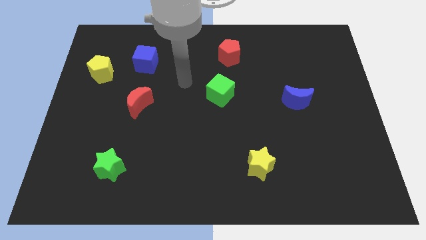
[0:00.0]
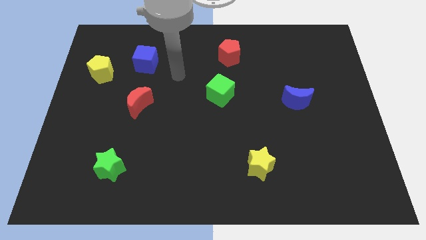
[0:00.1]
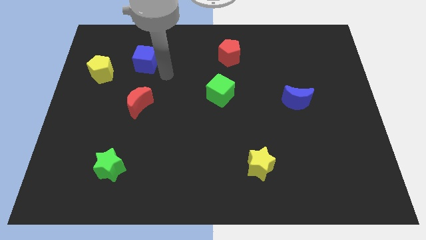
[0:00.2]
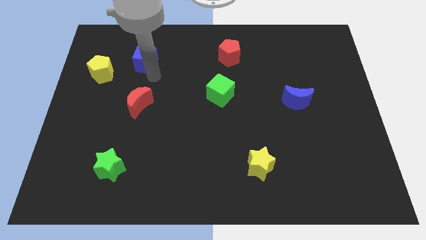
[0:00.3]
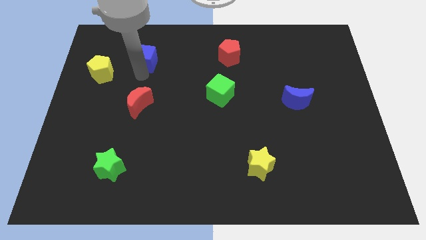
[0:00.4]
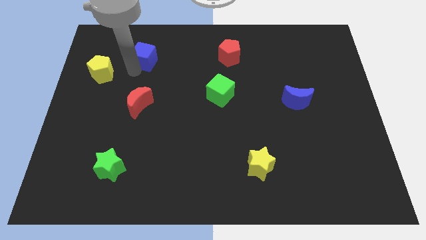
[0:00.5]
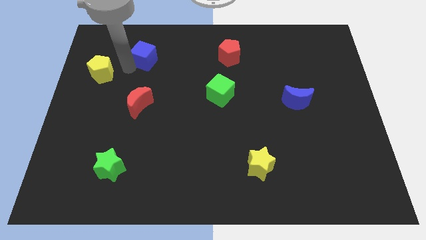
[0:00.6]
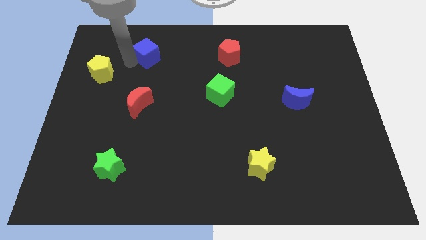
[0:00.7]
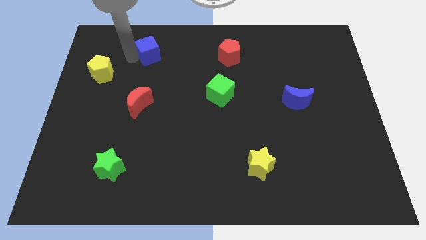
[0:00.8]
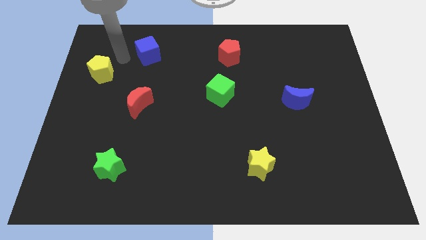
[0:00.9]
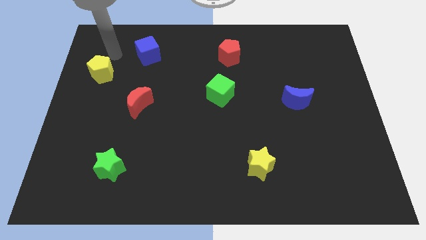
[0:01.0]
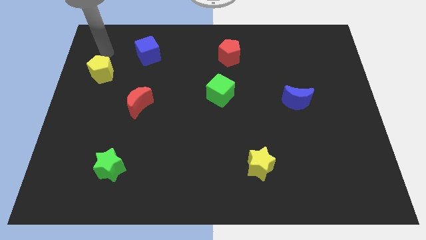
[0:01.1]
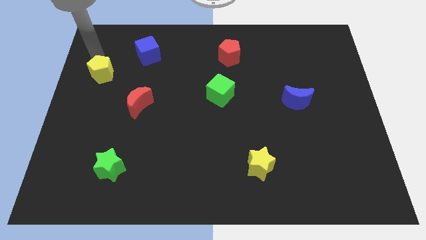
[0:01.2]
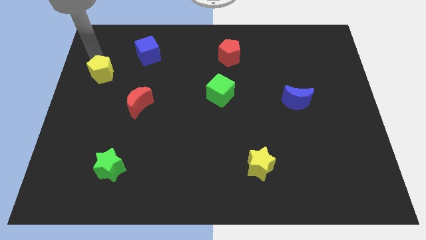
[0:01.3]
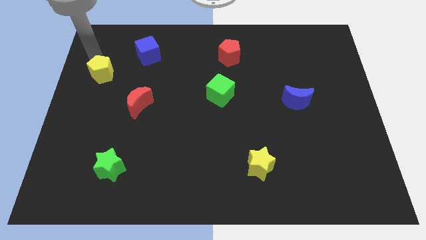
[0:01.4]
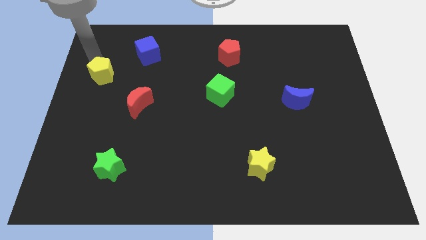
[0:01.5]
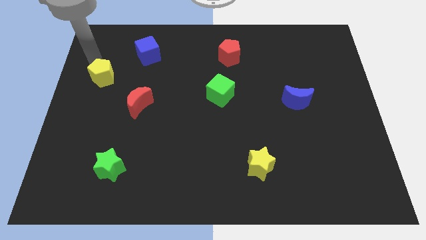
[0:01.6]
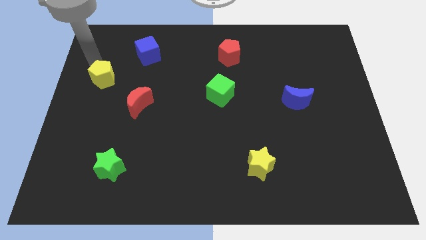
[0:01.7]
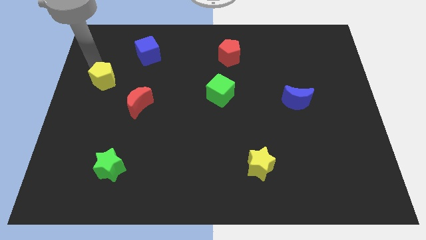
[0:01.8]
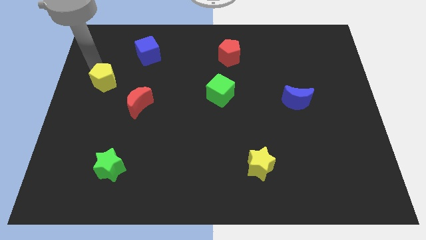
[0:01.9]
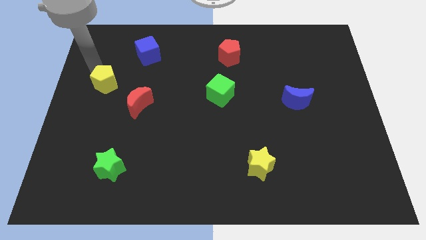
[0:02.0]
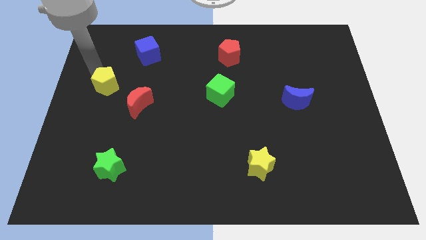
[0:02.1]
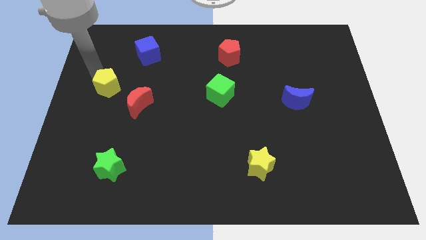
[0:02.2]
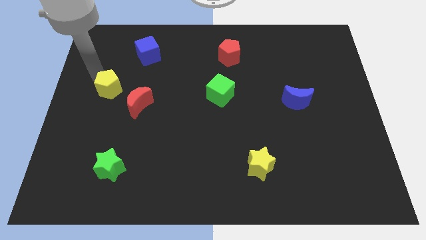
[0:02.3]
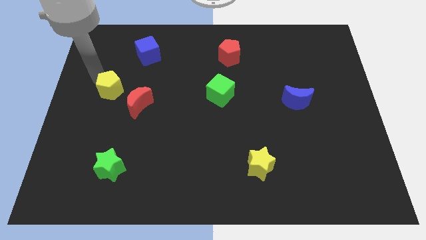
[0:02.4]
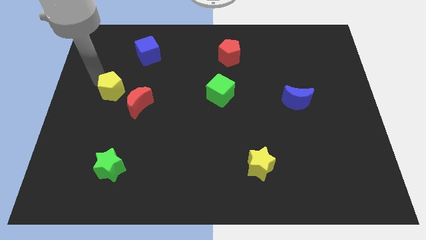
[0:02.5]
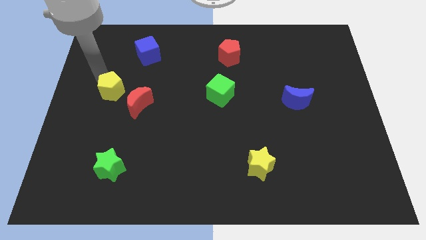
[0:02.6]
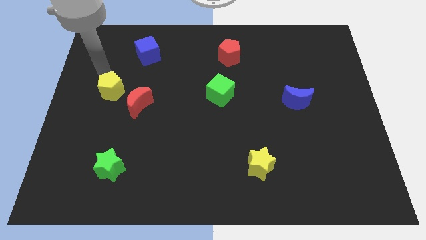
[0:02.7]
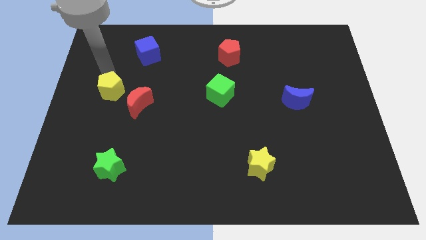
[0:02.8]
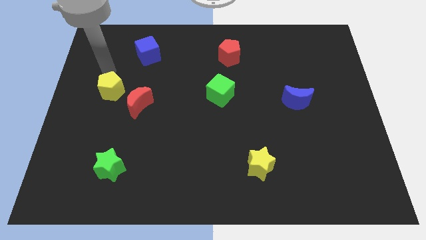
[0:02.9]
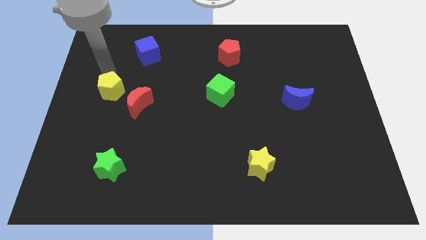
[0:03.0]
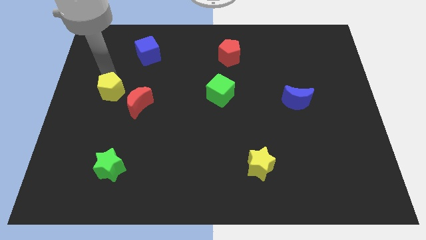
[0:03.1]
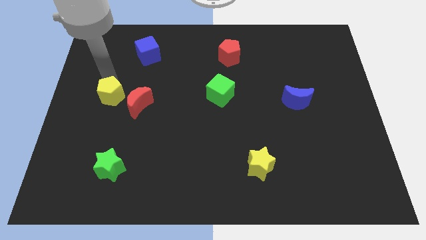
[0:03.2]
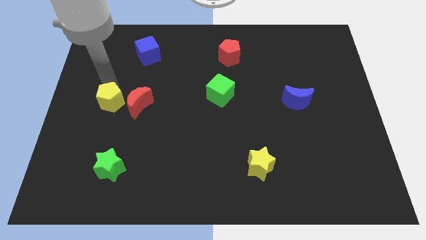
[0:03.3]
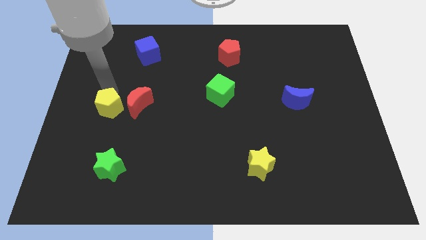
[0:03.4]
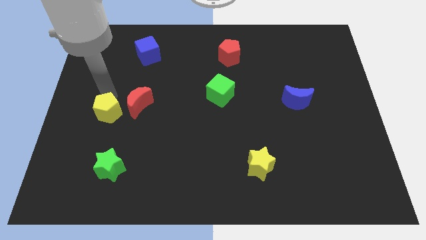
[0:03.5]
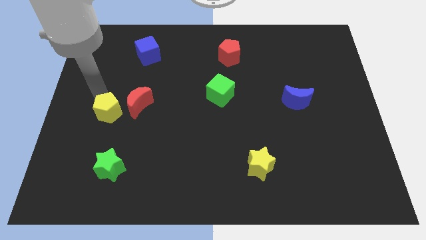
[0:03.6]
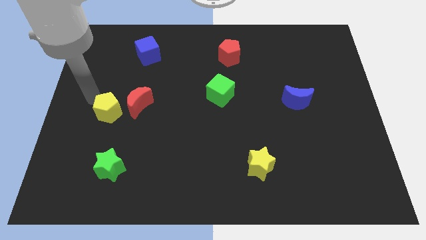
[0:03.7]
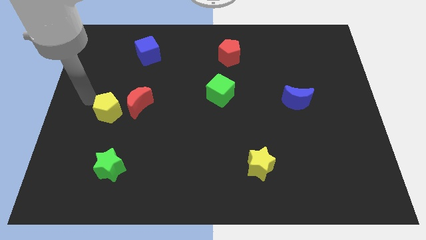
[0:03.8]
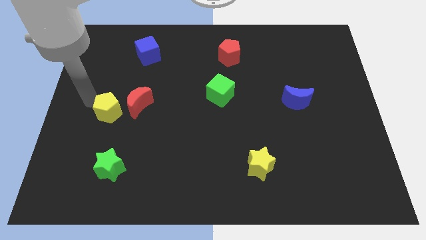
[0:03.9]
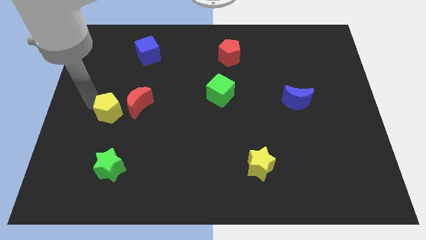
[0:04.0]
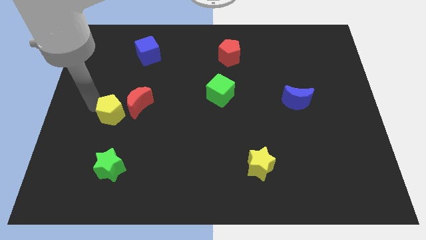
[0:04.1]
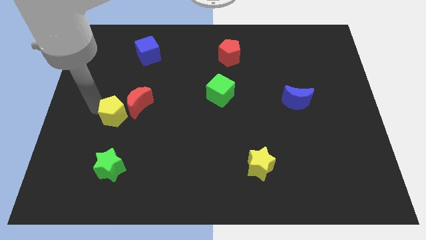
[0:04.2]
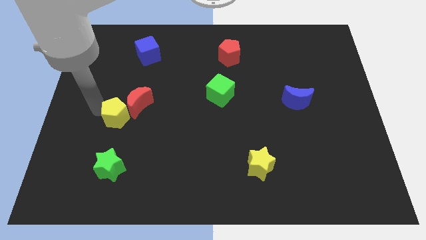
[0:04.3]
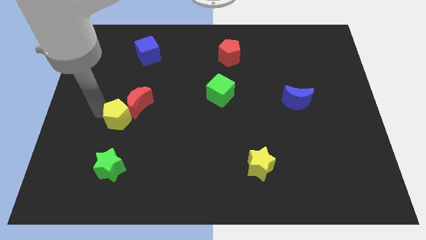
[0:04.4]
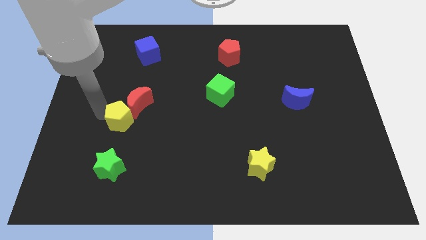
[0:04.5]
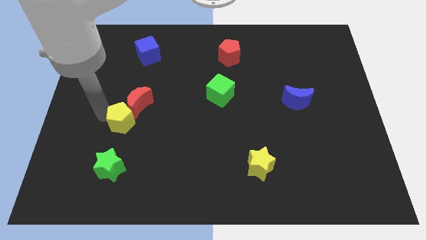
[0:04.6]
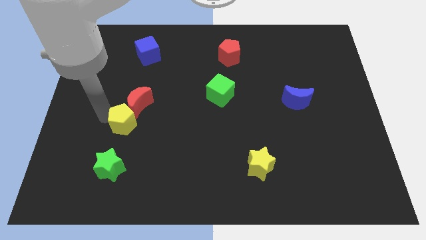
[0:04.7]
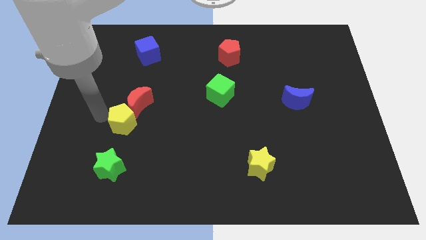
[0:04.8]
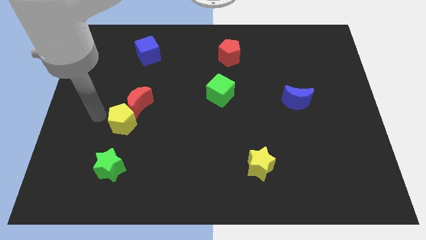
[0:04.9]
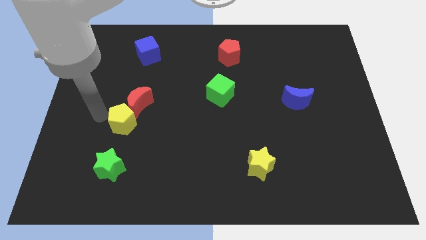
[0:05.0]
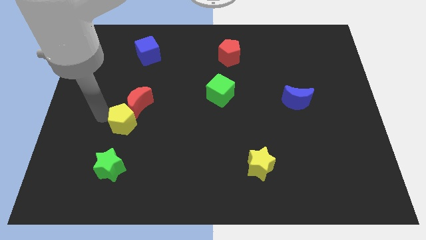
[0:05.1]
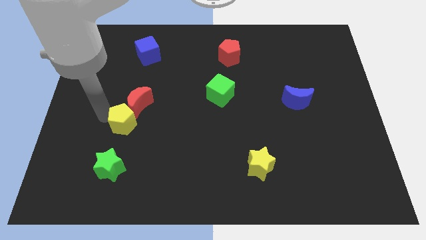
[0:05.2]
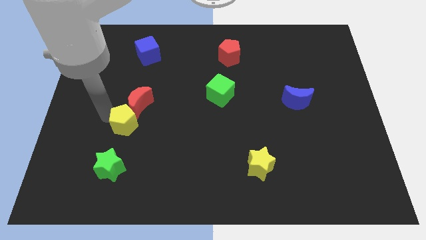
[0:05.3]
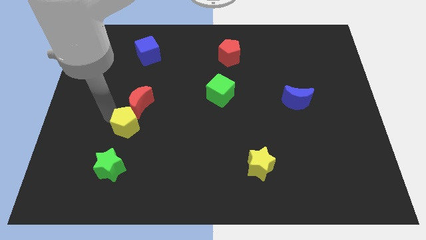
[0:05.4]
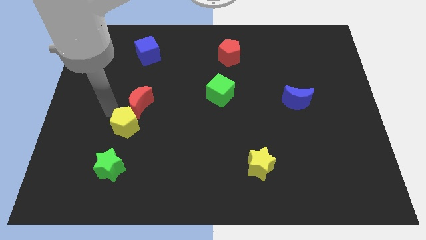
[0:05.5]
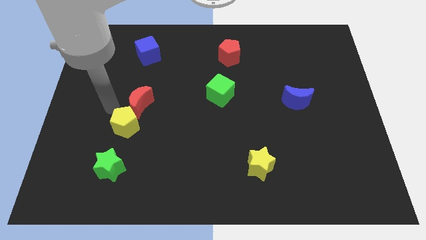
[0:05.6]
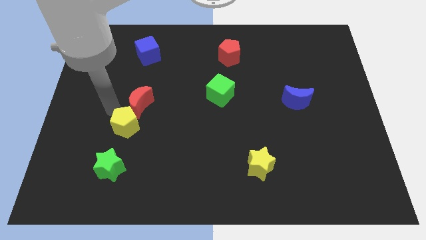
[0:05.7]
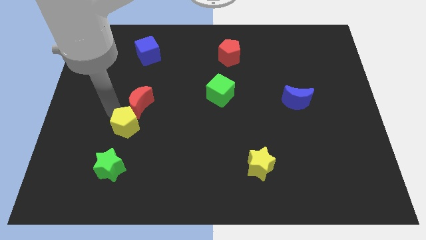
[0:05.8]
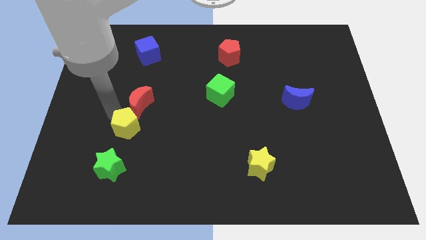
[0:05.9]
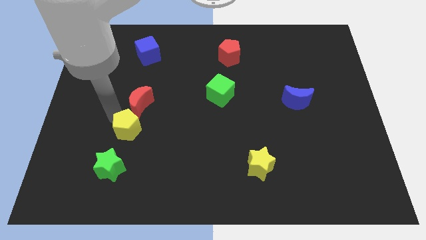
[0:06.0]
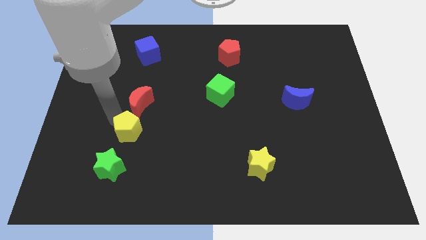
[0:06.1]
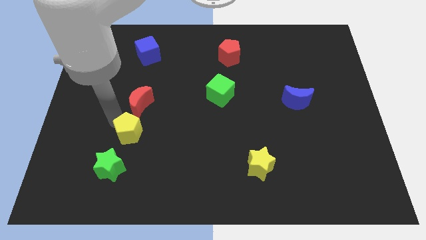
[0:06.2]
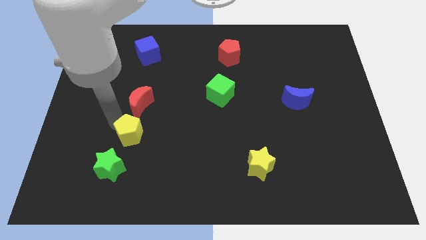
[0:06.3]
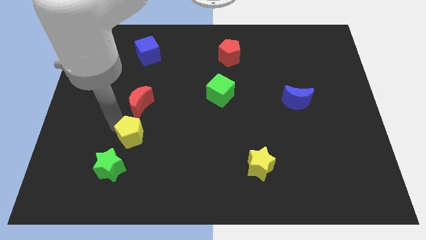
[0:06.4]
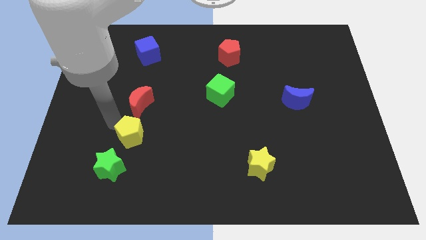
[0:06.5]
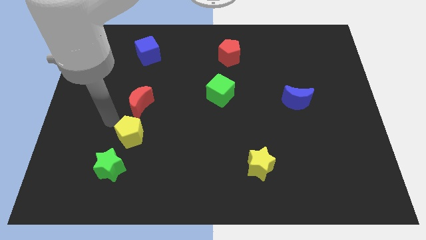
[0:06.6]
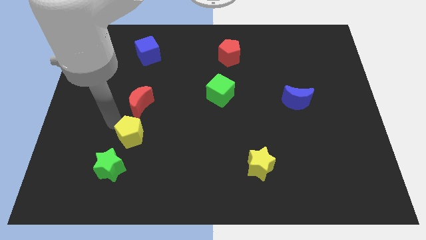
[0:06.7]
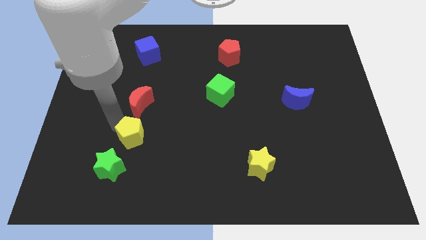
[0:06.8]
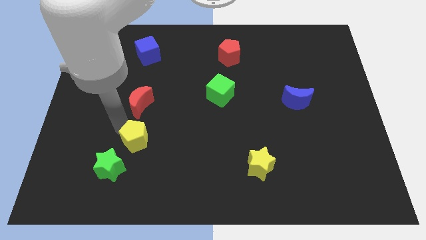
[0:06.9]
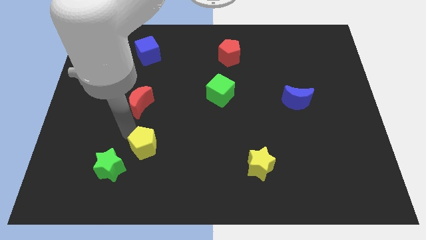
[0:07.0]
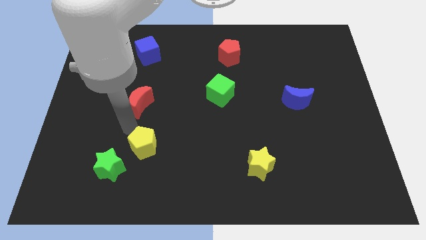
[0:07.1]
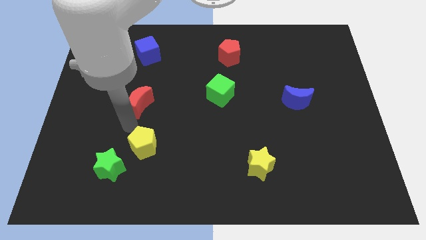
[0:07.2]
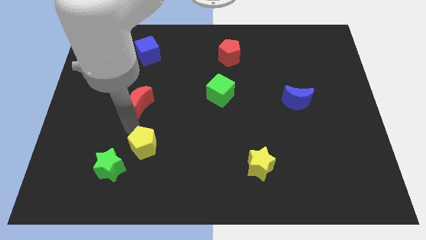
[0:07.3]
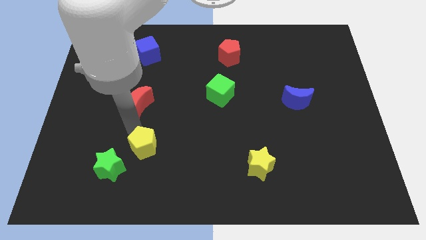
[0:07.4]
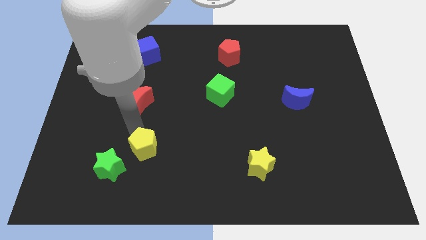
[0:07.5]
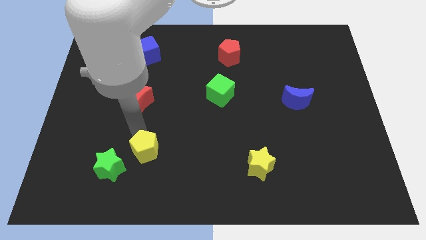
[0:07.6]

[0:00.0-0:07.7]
slide the yellow pentagon right of the green star
